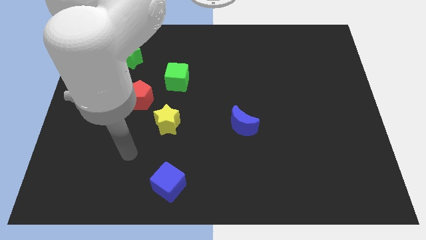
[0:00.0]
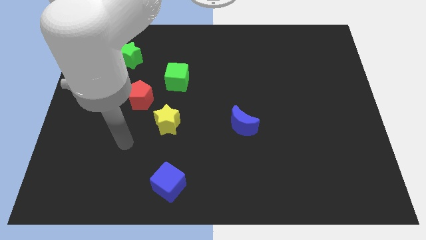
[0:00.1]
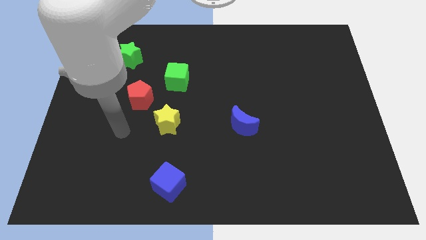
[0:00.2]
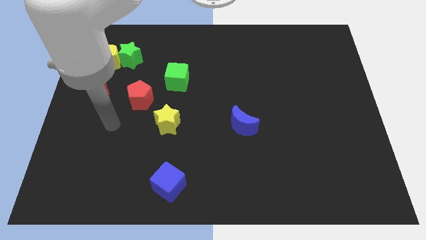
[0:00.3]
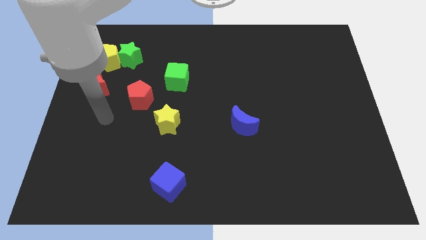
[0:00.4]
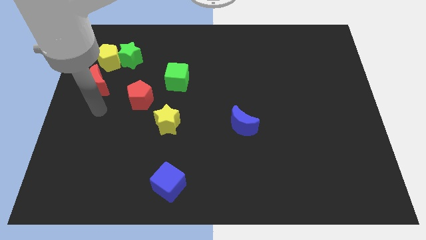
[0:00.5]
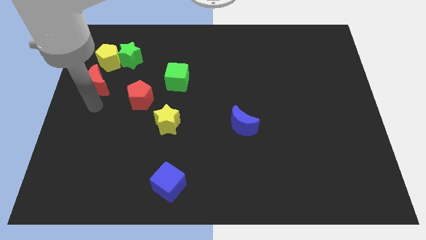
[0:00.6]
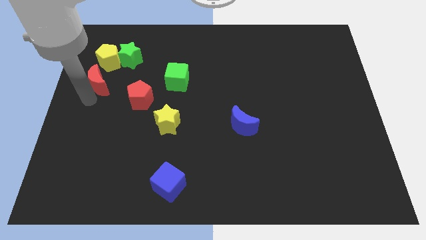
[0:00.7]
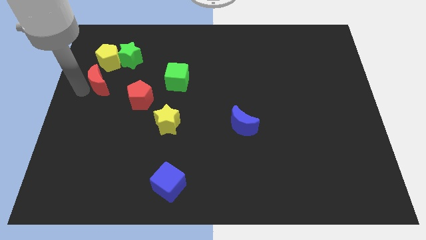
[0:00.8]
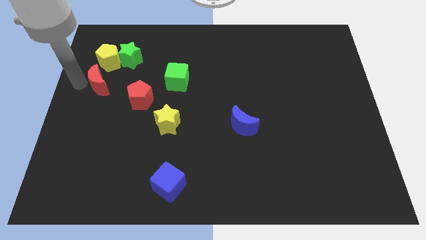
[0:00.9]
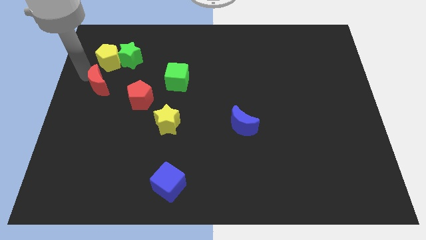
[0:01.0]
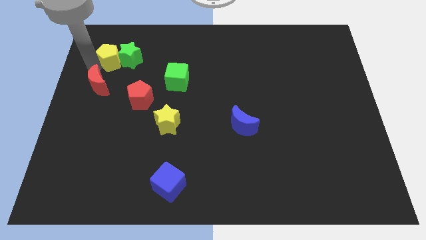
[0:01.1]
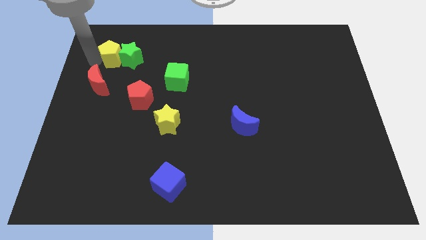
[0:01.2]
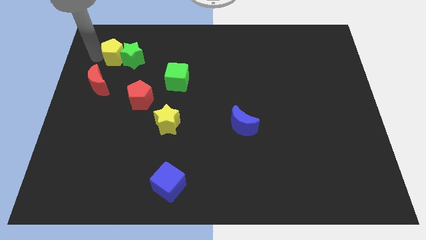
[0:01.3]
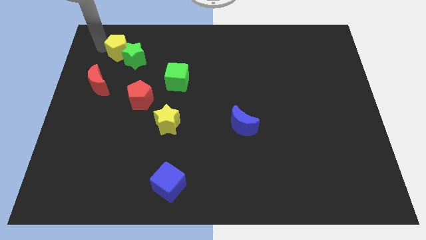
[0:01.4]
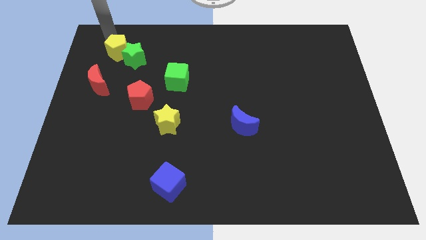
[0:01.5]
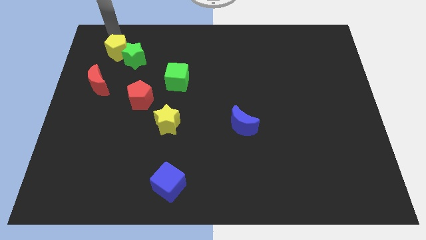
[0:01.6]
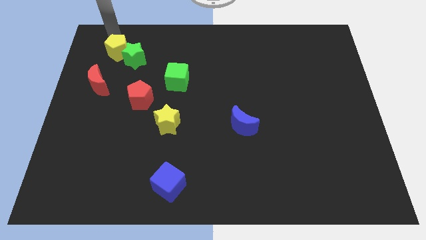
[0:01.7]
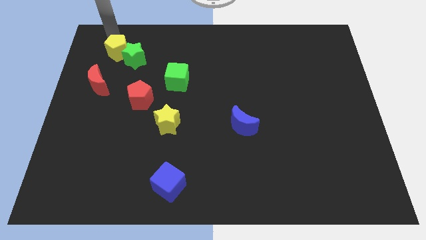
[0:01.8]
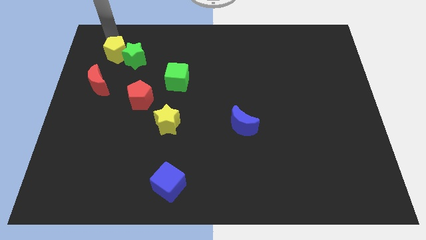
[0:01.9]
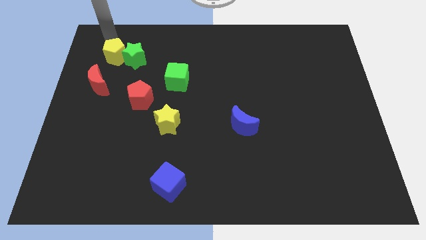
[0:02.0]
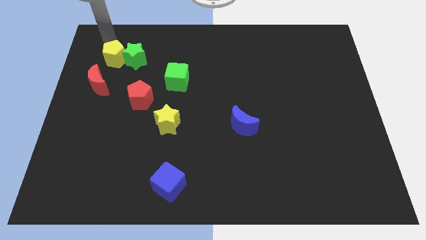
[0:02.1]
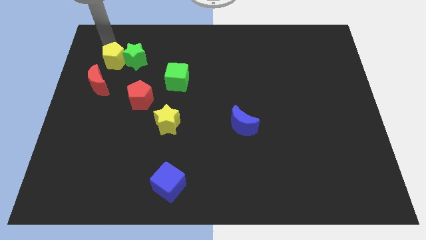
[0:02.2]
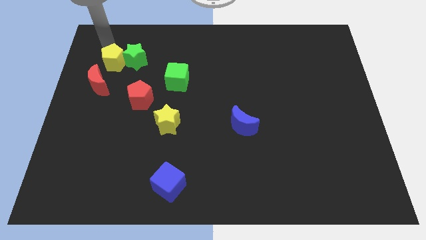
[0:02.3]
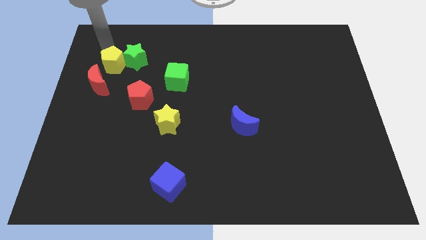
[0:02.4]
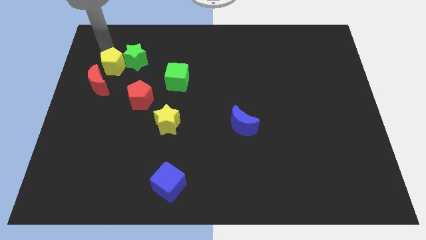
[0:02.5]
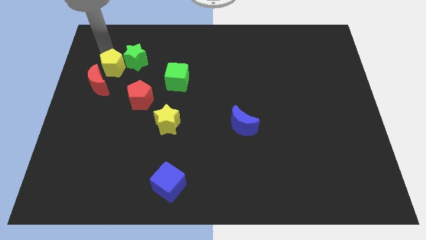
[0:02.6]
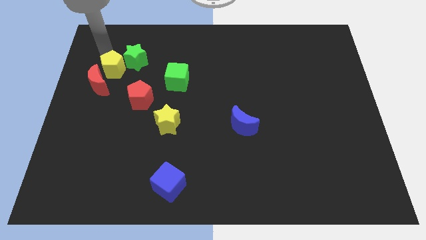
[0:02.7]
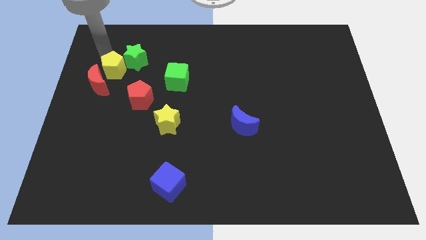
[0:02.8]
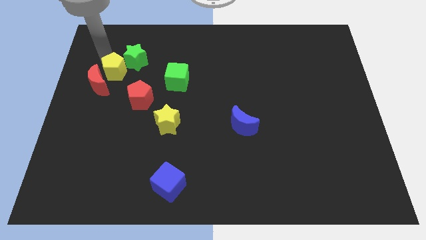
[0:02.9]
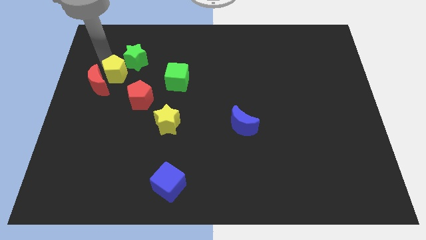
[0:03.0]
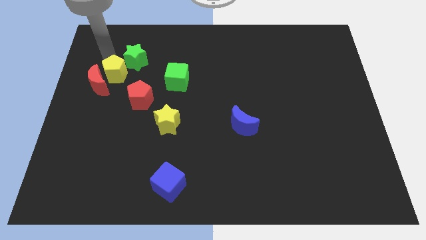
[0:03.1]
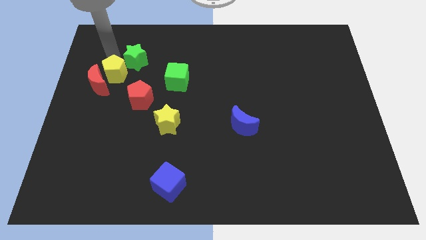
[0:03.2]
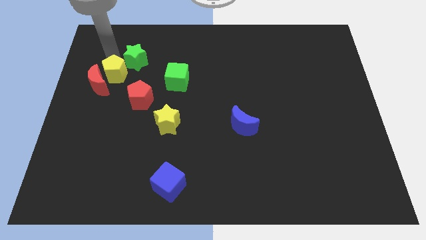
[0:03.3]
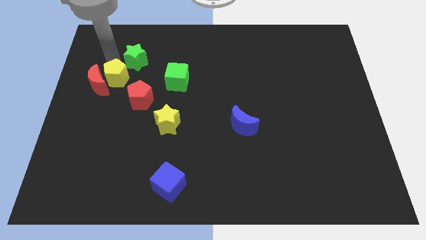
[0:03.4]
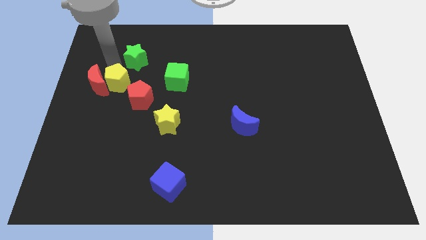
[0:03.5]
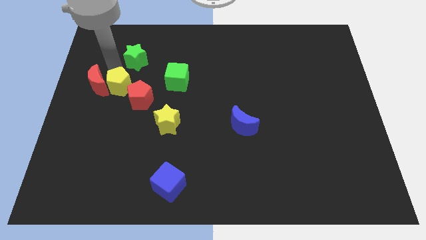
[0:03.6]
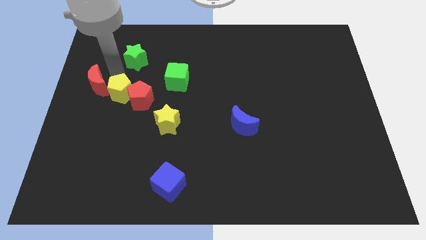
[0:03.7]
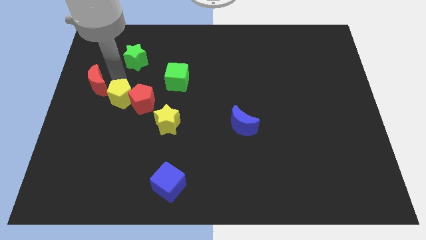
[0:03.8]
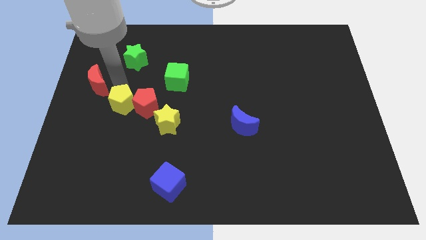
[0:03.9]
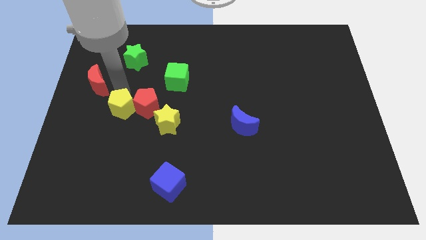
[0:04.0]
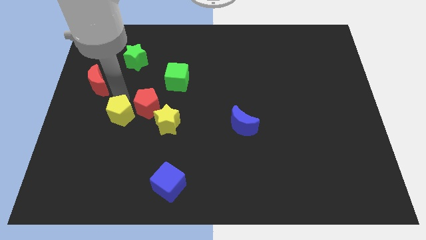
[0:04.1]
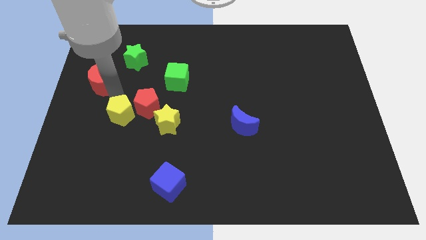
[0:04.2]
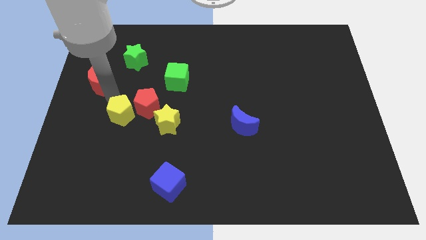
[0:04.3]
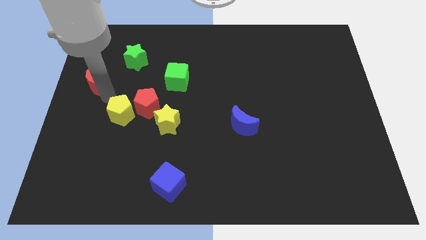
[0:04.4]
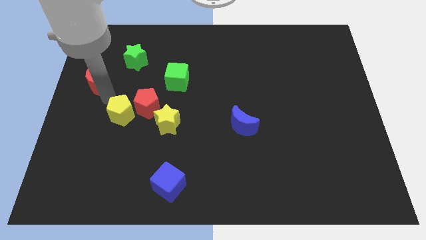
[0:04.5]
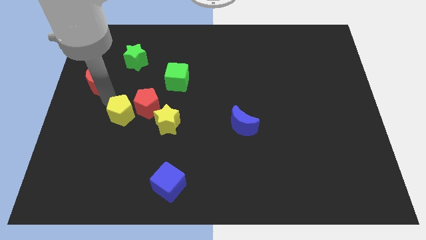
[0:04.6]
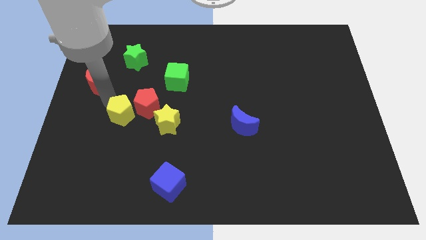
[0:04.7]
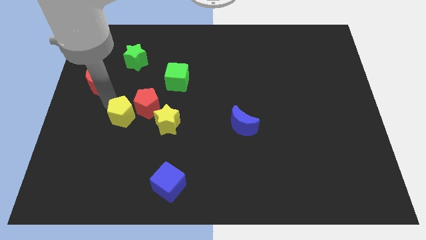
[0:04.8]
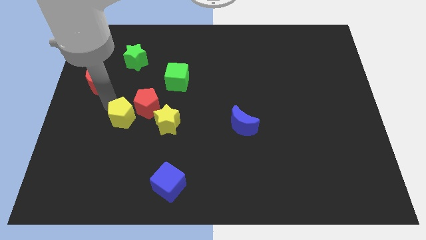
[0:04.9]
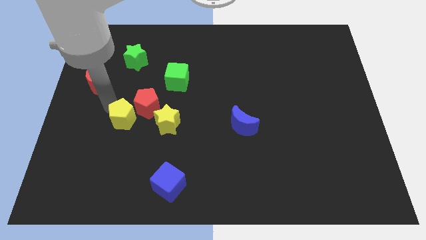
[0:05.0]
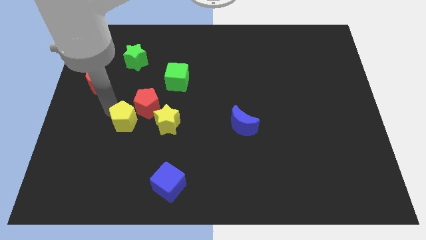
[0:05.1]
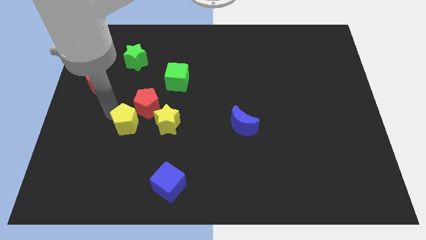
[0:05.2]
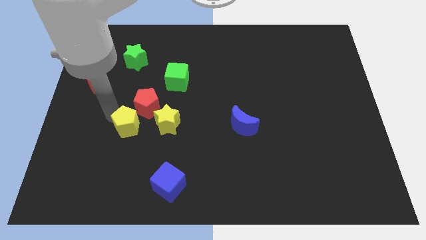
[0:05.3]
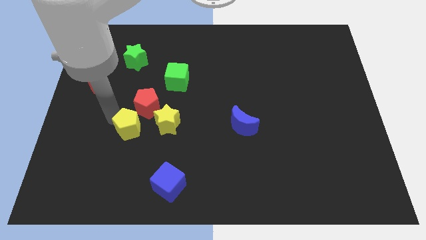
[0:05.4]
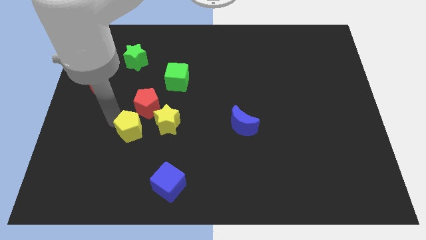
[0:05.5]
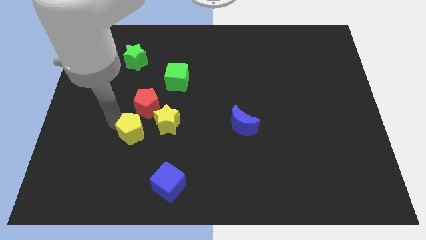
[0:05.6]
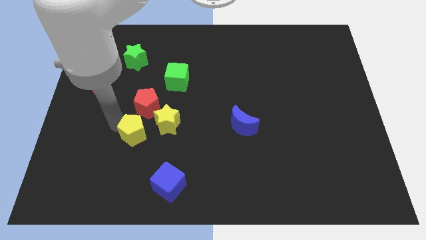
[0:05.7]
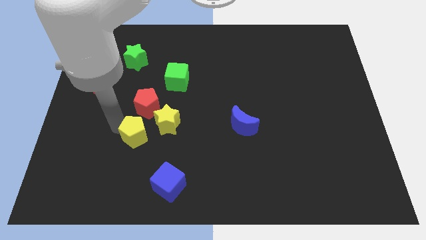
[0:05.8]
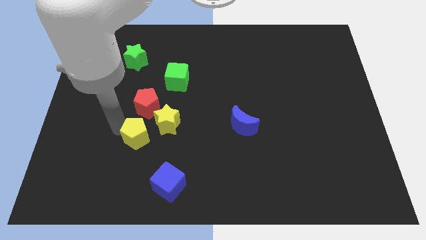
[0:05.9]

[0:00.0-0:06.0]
slide the yellow pentagon downwards and right diagonally

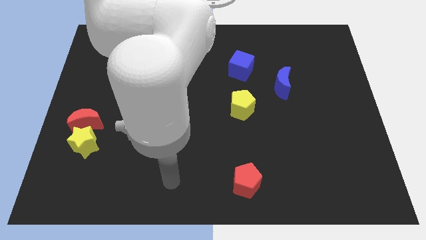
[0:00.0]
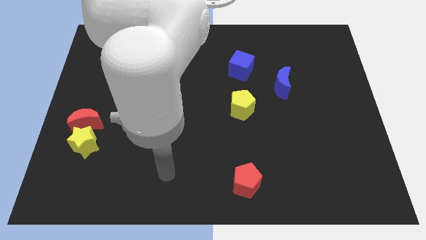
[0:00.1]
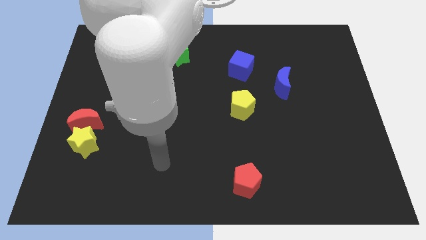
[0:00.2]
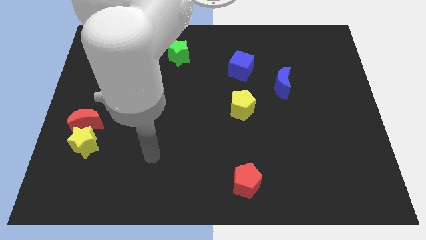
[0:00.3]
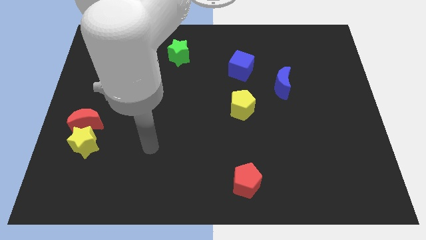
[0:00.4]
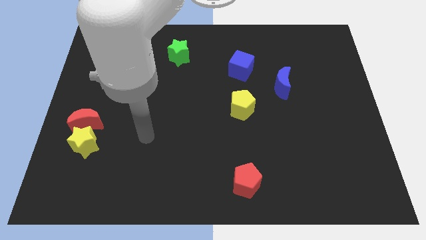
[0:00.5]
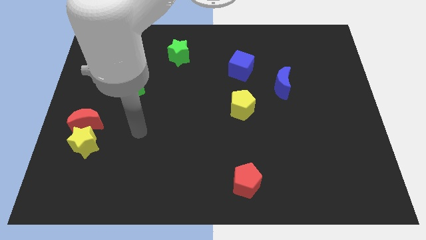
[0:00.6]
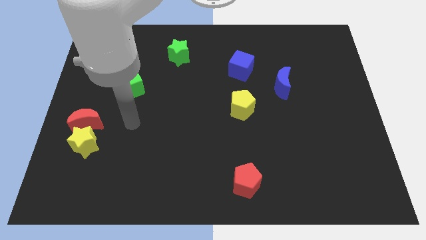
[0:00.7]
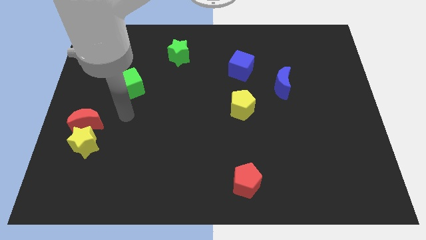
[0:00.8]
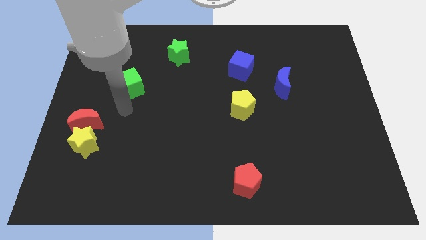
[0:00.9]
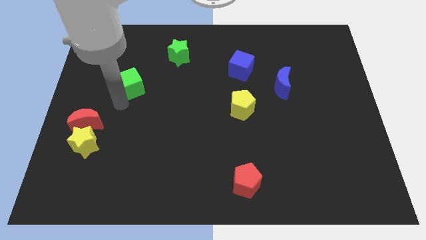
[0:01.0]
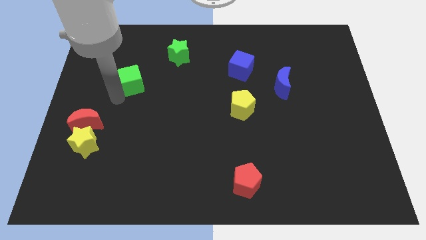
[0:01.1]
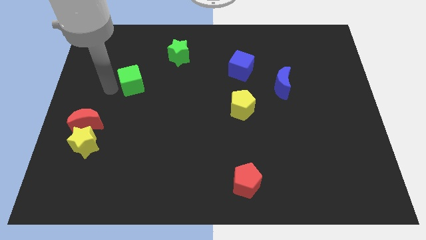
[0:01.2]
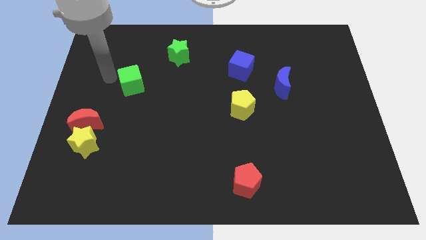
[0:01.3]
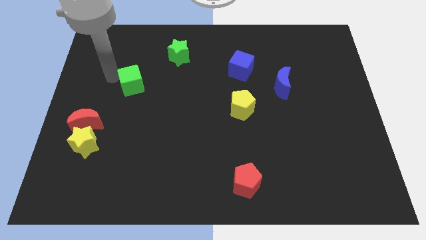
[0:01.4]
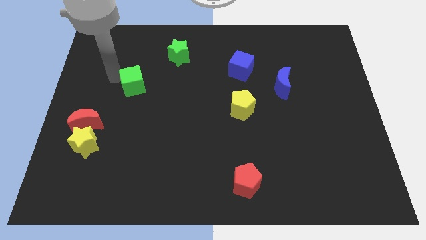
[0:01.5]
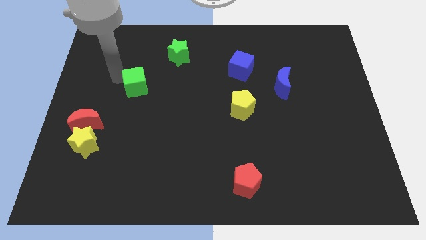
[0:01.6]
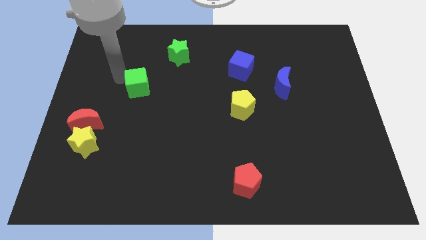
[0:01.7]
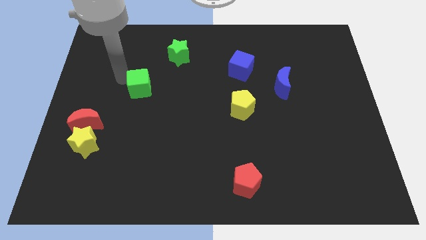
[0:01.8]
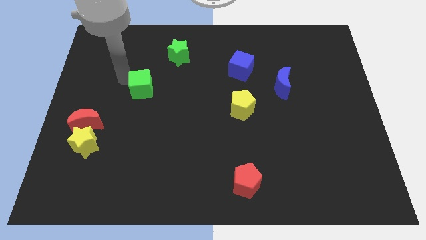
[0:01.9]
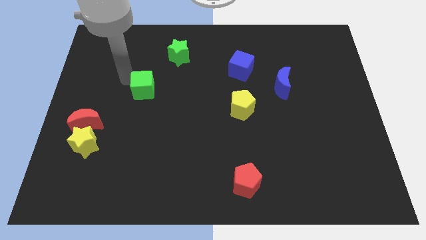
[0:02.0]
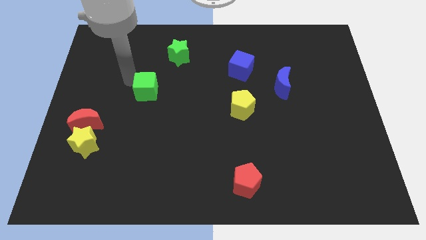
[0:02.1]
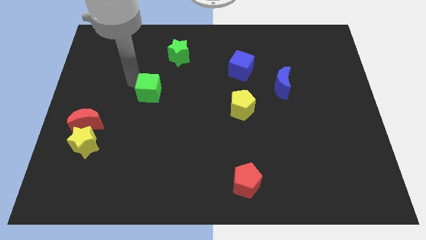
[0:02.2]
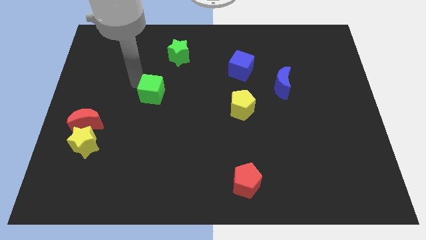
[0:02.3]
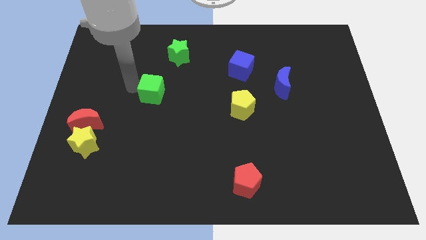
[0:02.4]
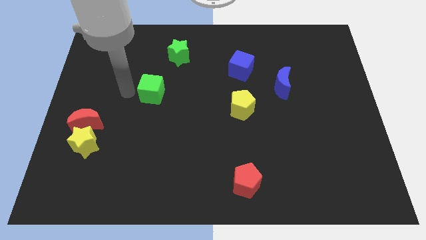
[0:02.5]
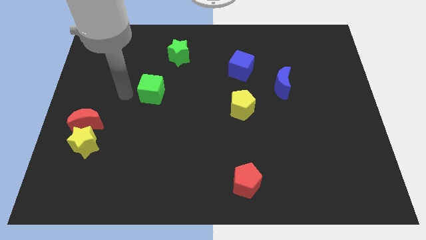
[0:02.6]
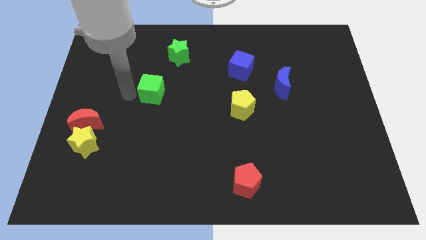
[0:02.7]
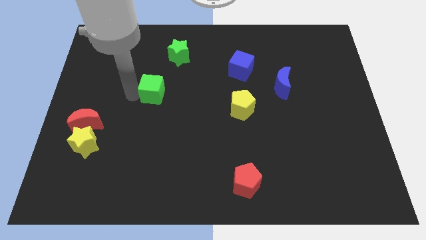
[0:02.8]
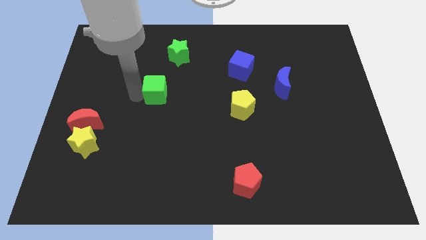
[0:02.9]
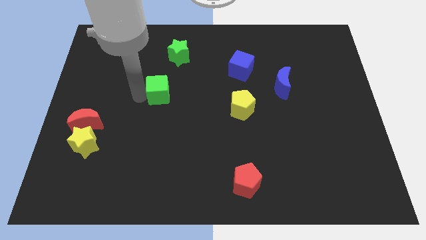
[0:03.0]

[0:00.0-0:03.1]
slightly move the green cube to the right
